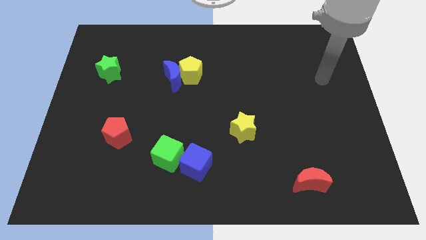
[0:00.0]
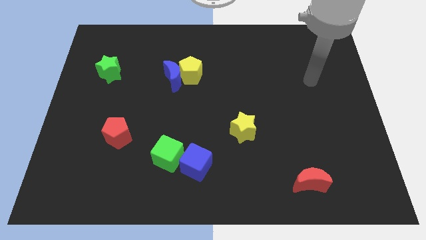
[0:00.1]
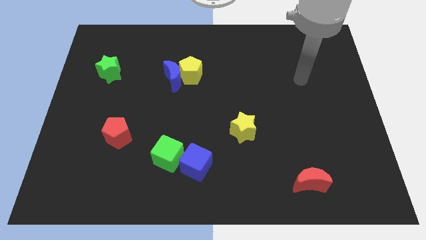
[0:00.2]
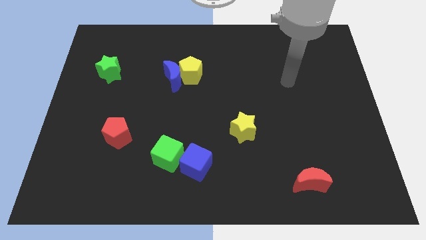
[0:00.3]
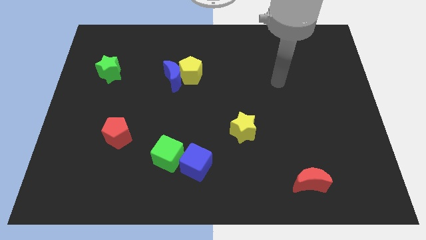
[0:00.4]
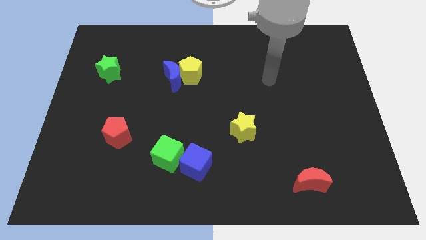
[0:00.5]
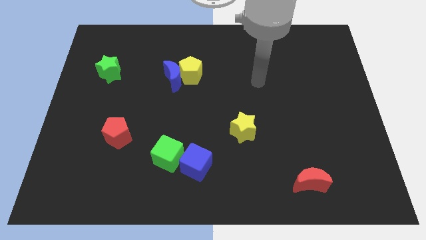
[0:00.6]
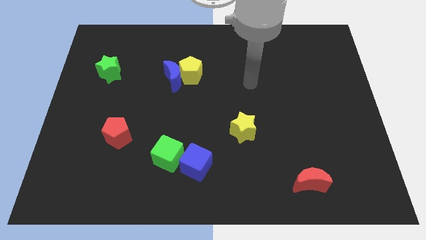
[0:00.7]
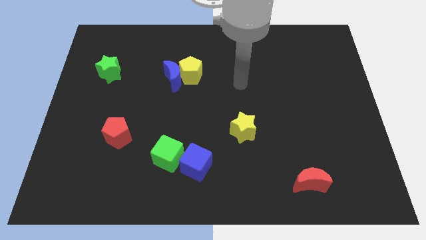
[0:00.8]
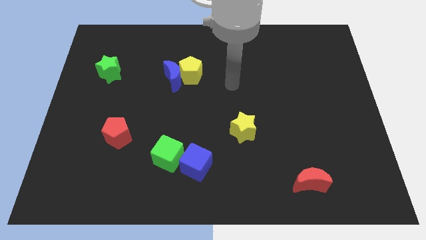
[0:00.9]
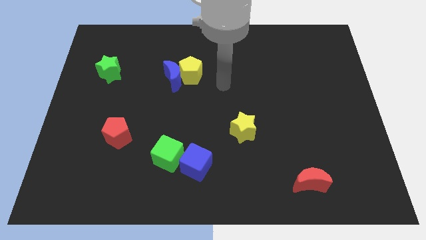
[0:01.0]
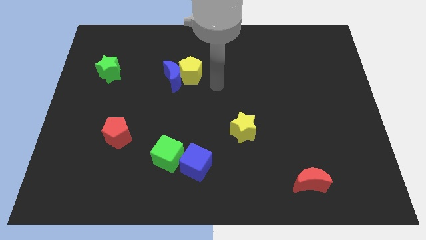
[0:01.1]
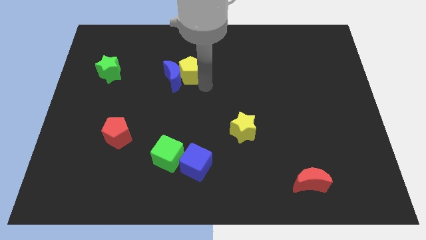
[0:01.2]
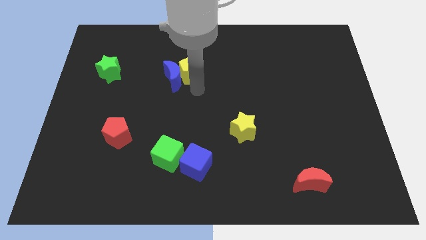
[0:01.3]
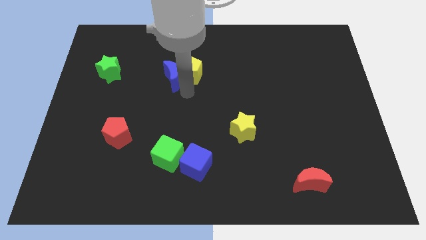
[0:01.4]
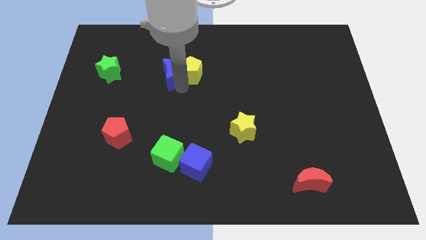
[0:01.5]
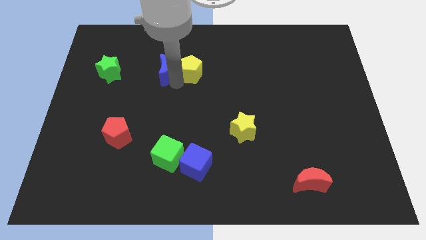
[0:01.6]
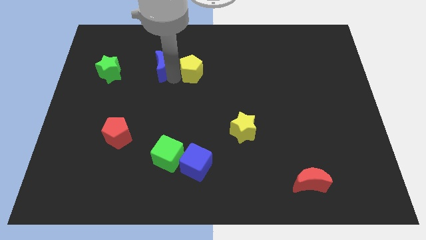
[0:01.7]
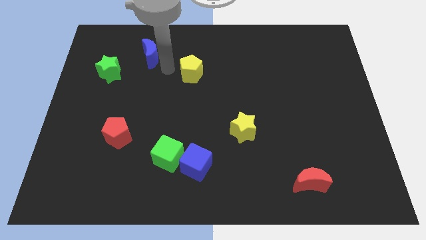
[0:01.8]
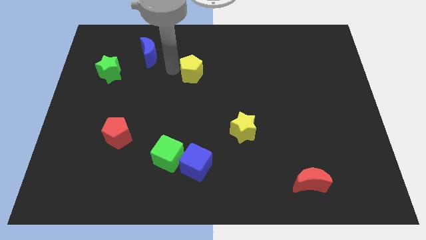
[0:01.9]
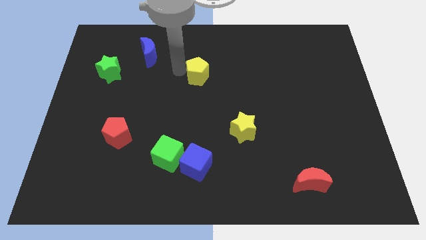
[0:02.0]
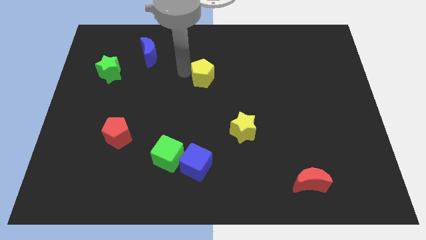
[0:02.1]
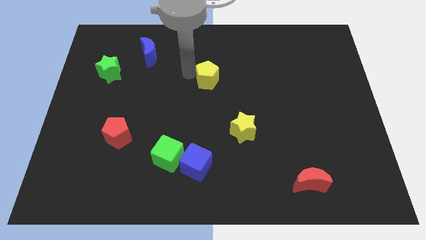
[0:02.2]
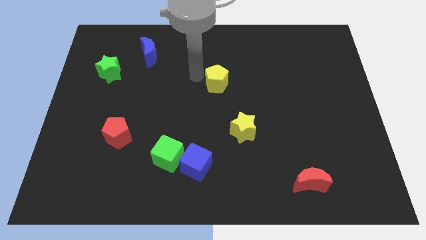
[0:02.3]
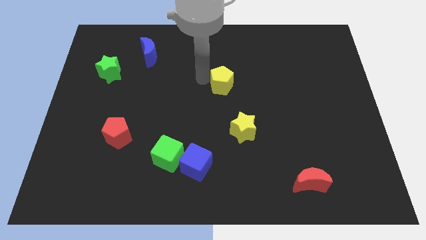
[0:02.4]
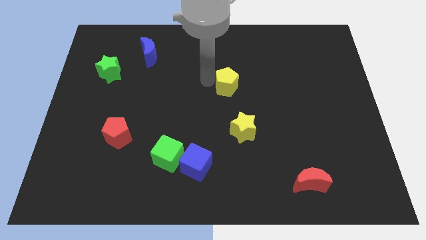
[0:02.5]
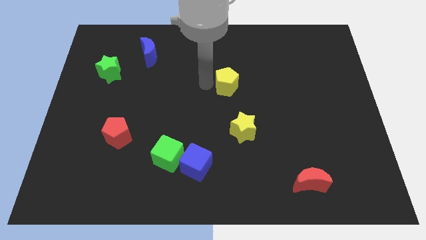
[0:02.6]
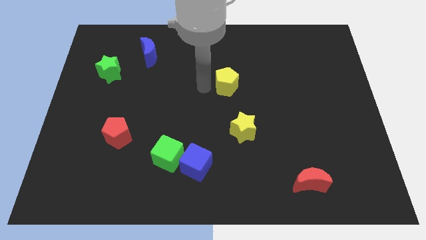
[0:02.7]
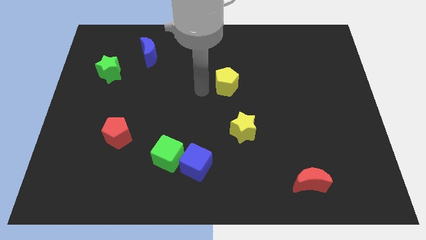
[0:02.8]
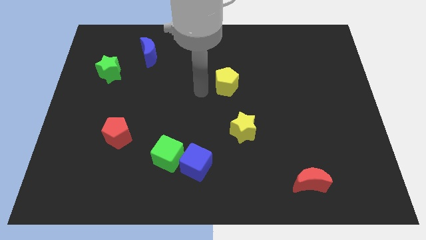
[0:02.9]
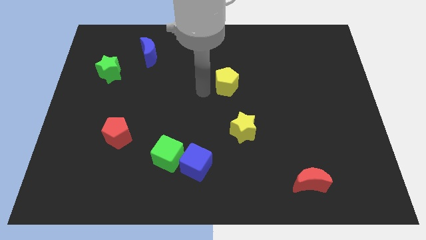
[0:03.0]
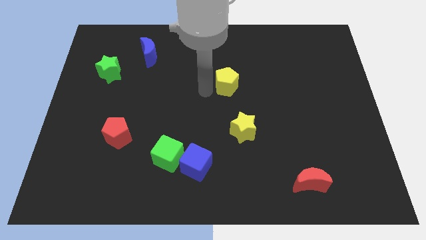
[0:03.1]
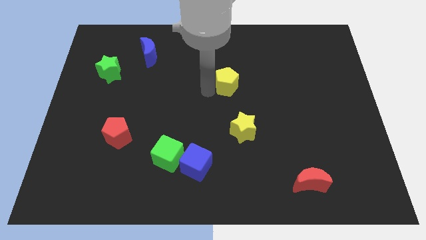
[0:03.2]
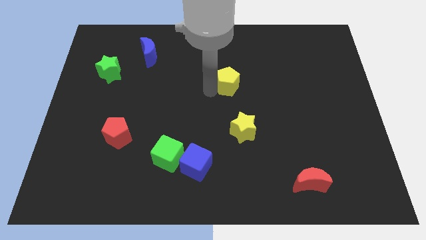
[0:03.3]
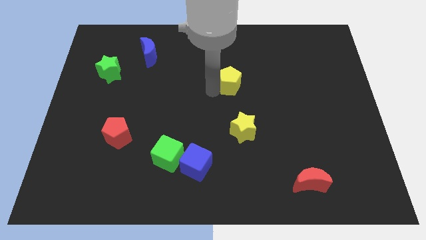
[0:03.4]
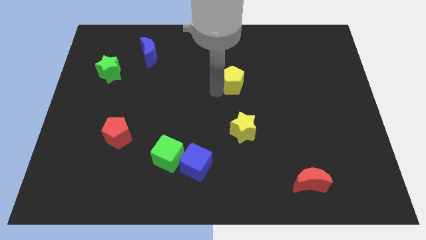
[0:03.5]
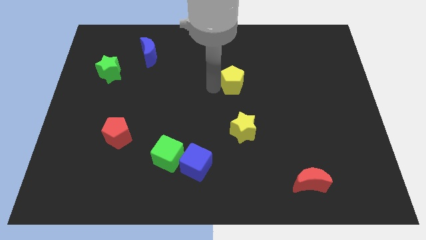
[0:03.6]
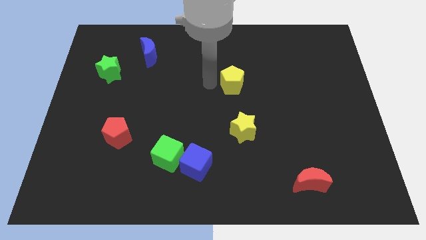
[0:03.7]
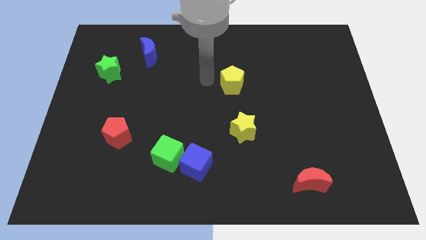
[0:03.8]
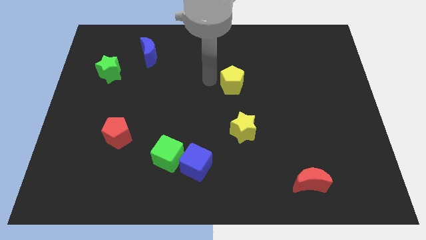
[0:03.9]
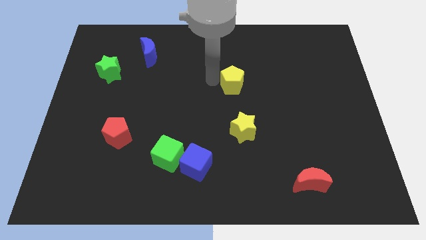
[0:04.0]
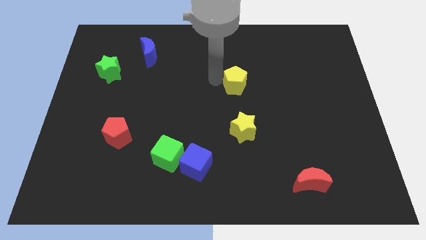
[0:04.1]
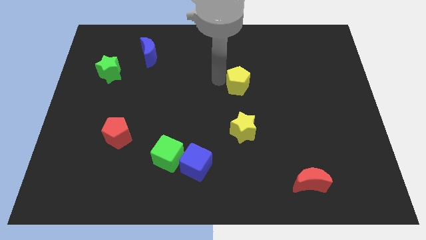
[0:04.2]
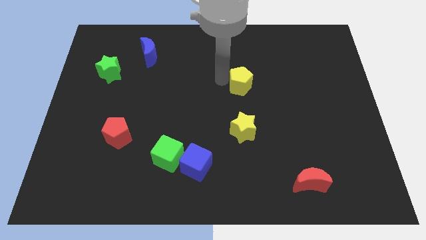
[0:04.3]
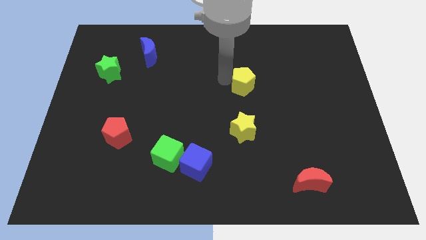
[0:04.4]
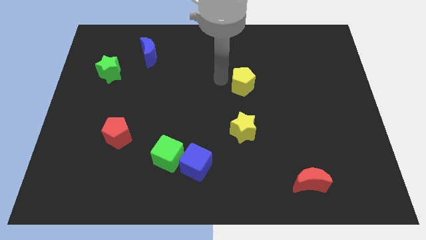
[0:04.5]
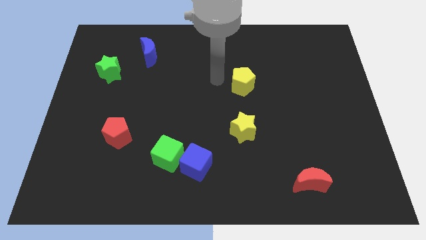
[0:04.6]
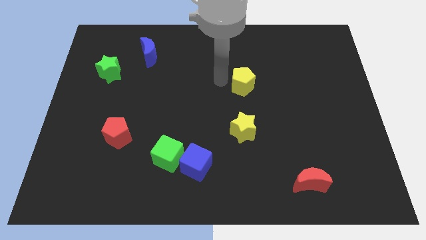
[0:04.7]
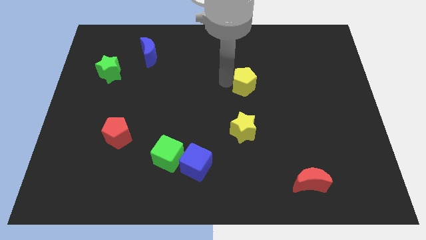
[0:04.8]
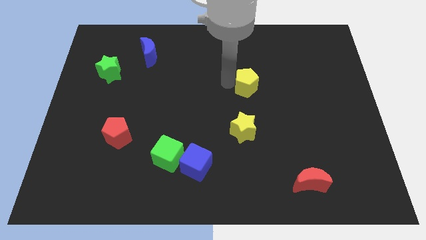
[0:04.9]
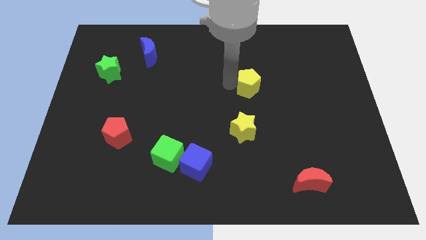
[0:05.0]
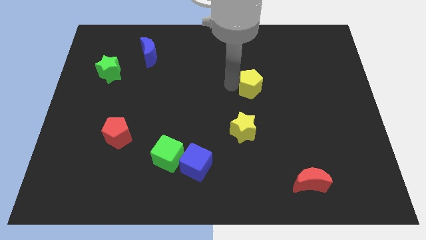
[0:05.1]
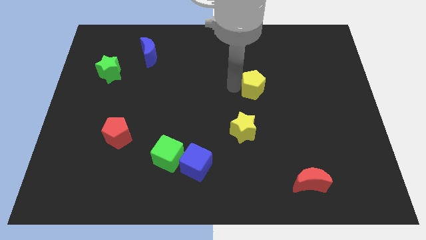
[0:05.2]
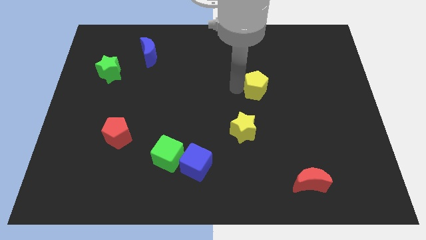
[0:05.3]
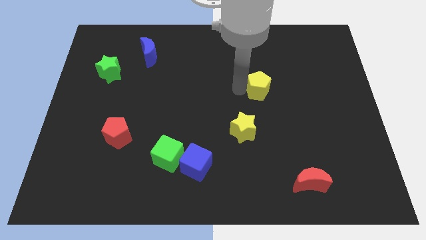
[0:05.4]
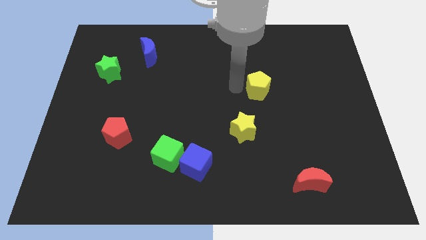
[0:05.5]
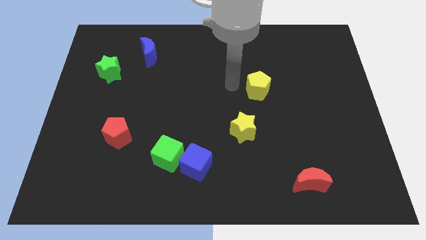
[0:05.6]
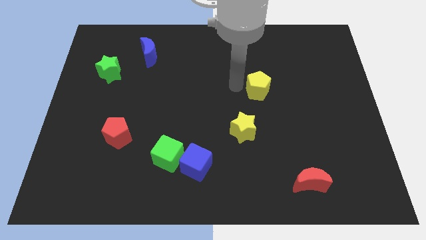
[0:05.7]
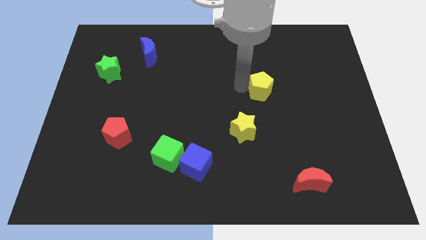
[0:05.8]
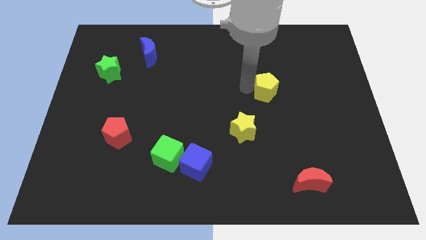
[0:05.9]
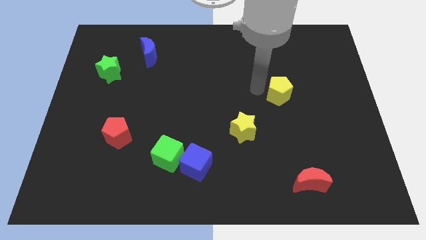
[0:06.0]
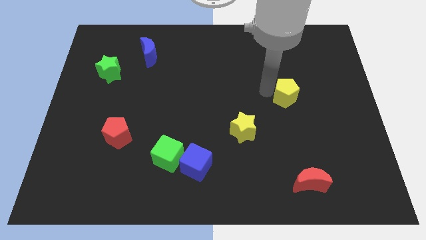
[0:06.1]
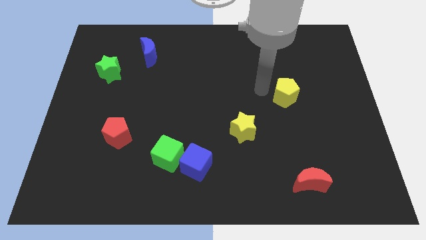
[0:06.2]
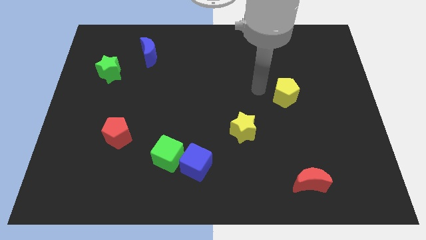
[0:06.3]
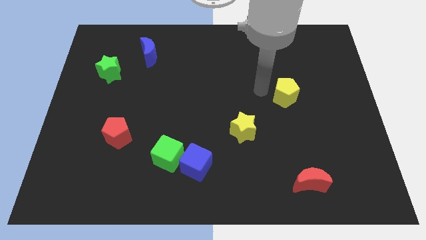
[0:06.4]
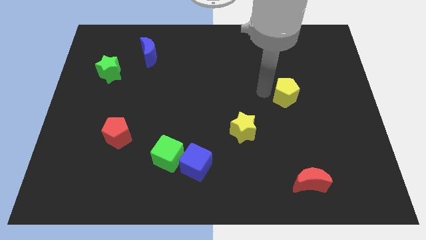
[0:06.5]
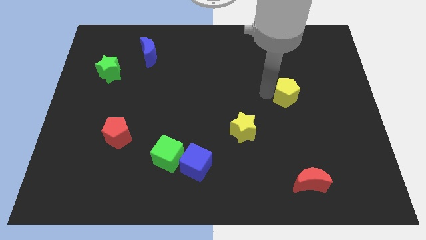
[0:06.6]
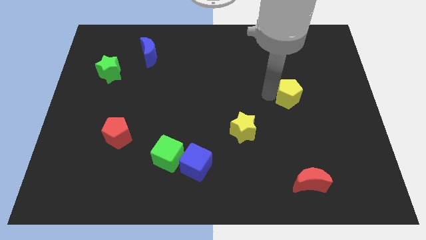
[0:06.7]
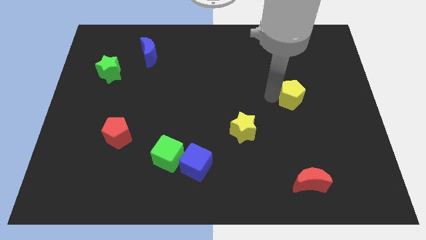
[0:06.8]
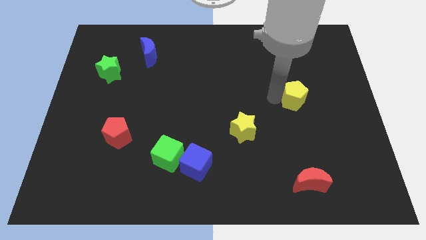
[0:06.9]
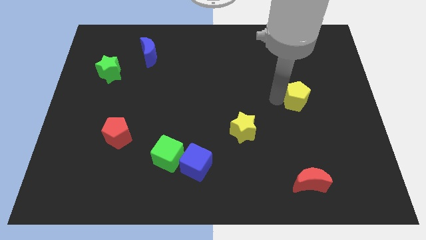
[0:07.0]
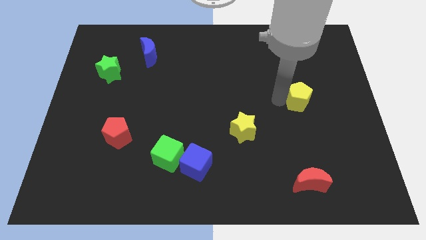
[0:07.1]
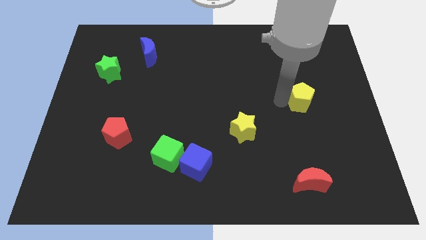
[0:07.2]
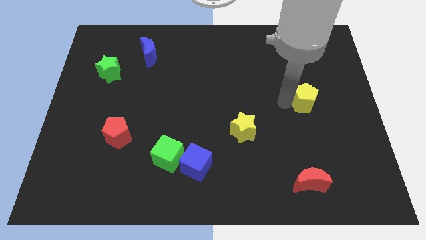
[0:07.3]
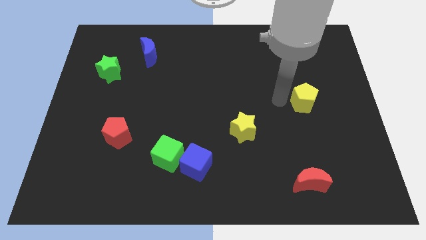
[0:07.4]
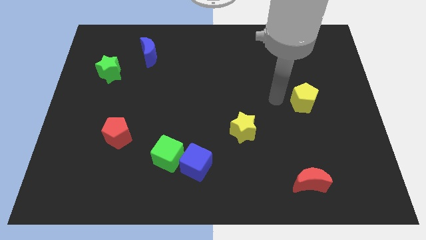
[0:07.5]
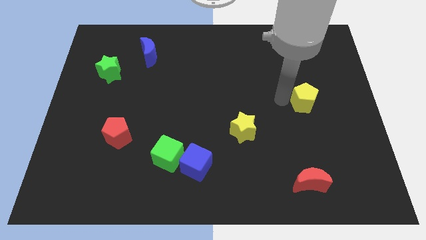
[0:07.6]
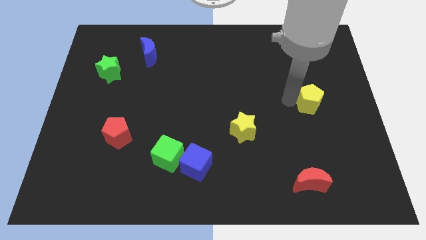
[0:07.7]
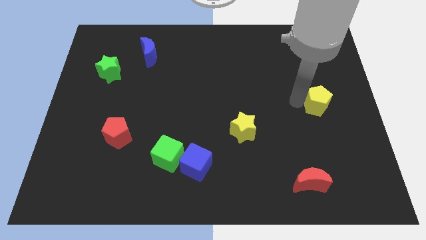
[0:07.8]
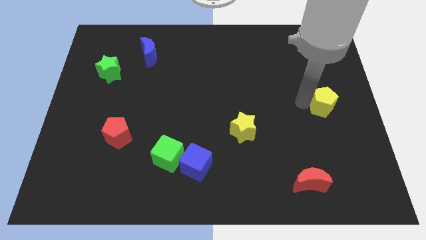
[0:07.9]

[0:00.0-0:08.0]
slide the yellow pentagon to the center right
